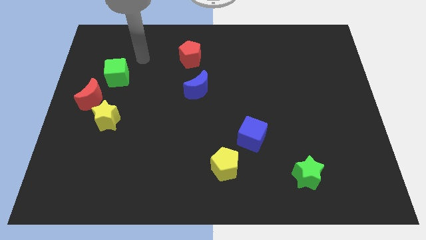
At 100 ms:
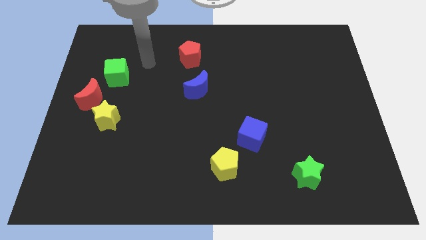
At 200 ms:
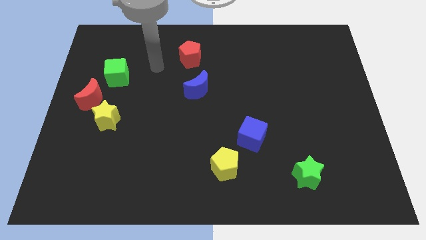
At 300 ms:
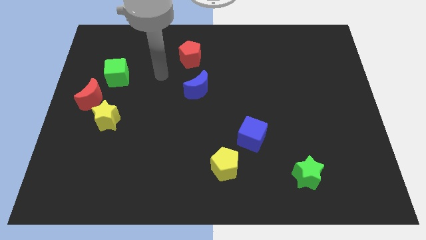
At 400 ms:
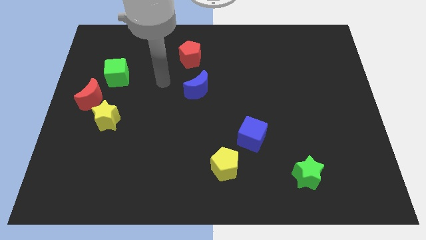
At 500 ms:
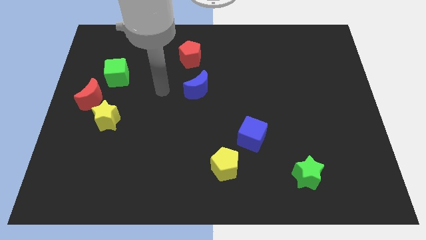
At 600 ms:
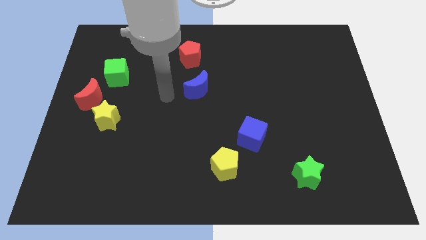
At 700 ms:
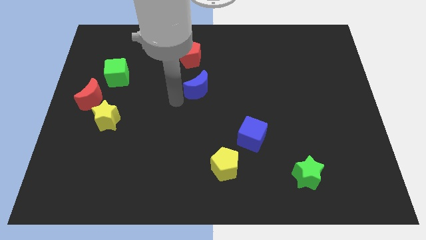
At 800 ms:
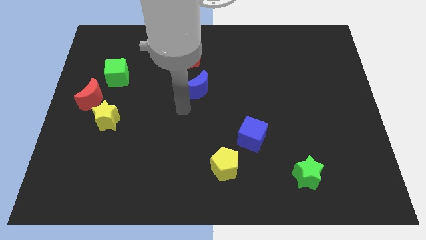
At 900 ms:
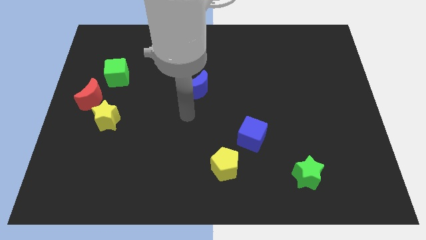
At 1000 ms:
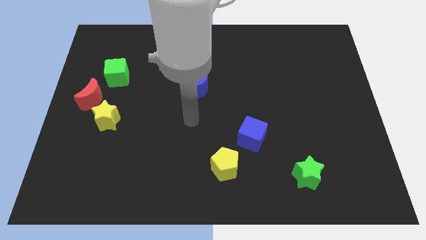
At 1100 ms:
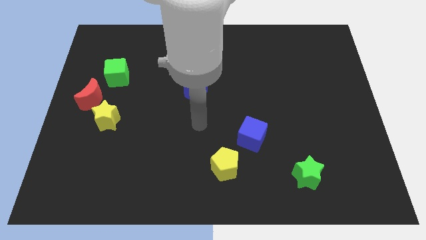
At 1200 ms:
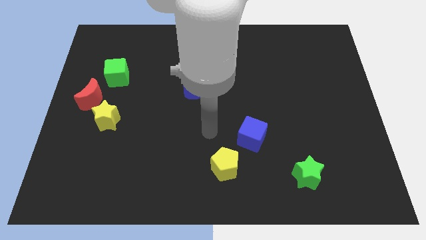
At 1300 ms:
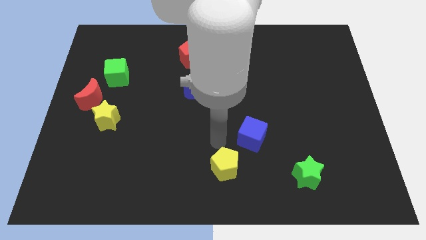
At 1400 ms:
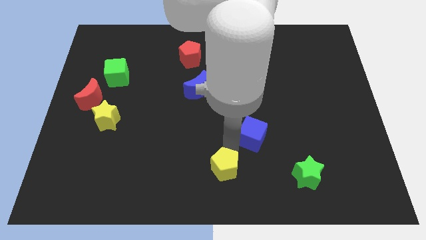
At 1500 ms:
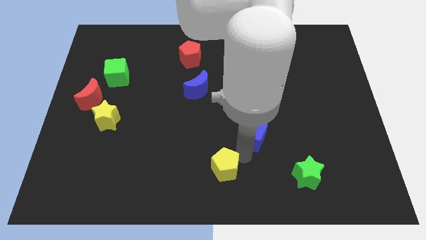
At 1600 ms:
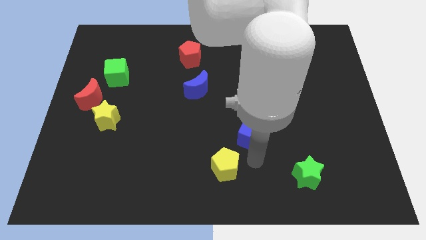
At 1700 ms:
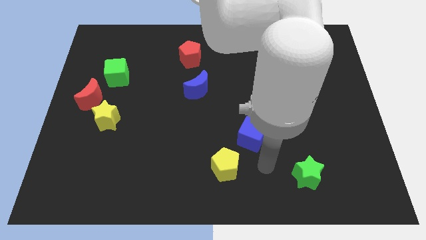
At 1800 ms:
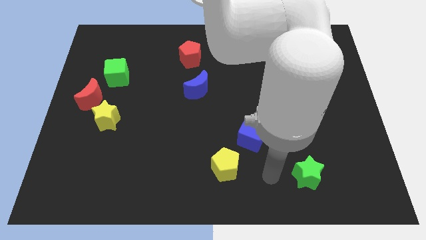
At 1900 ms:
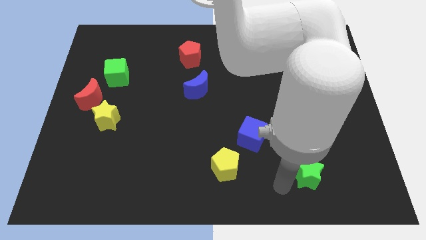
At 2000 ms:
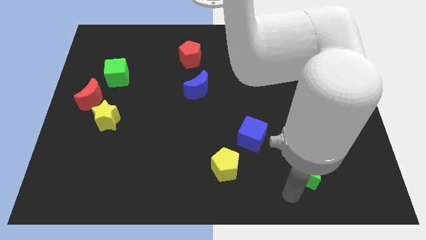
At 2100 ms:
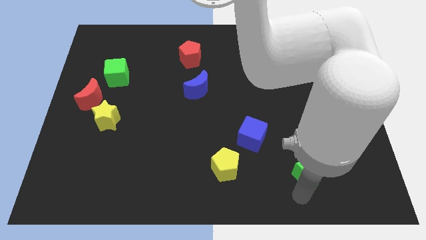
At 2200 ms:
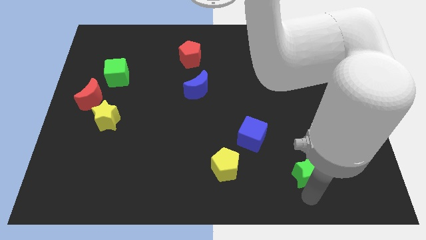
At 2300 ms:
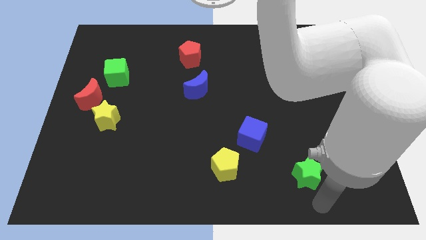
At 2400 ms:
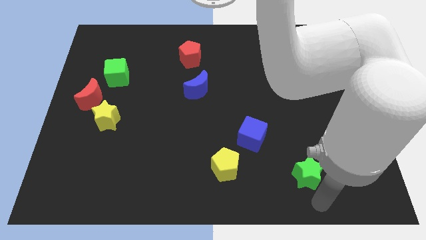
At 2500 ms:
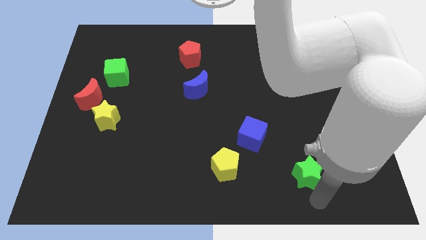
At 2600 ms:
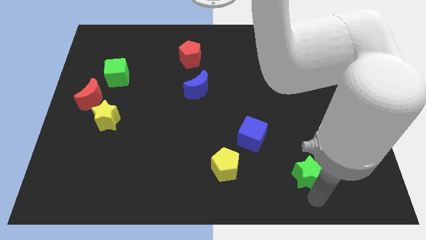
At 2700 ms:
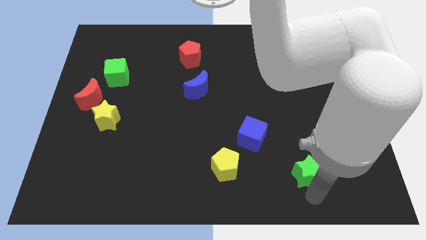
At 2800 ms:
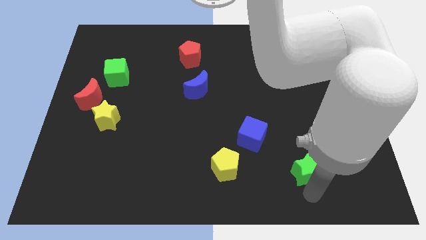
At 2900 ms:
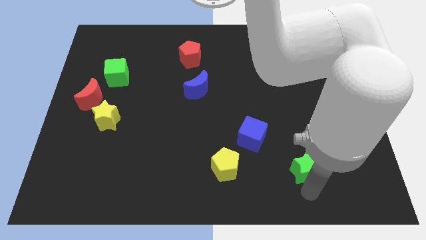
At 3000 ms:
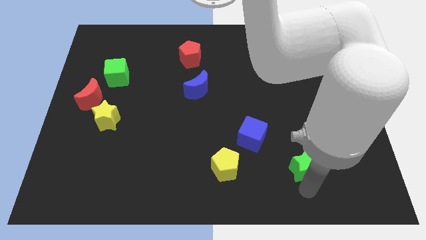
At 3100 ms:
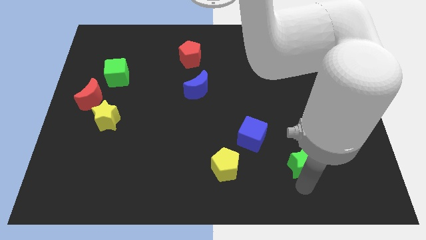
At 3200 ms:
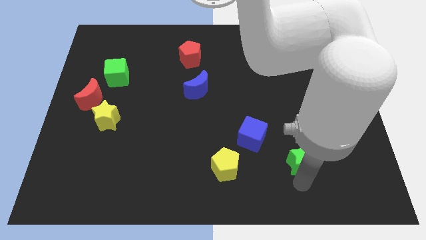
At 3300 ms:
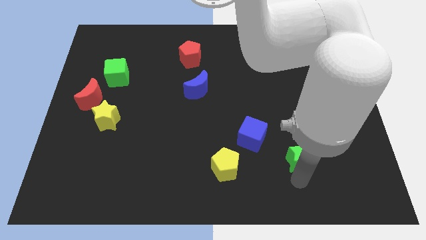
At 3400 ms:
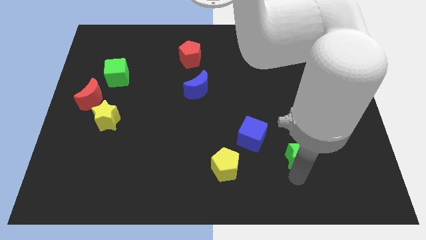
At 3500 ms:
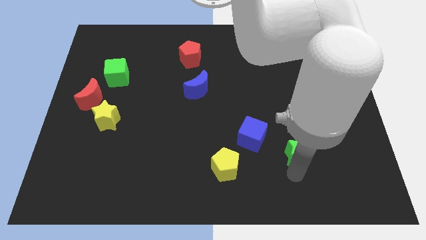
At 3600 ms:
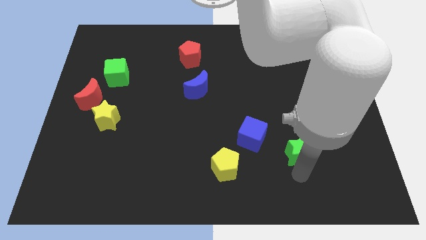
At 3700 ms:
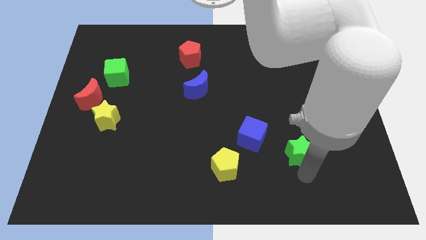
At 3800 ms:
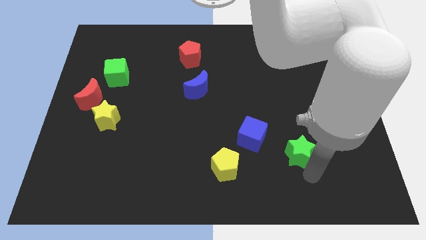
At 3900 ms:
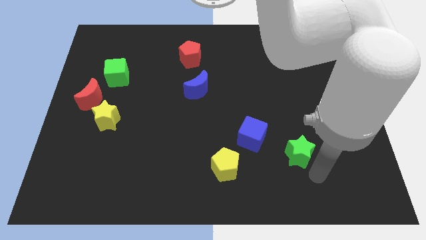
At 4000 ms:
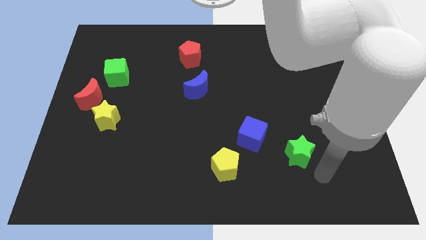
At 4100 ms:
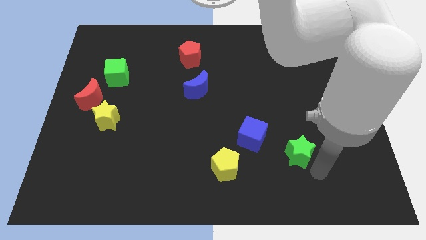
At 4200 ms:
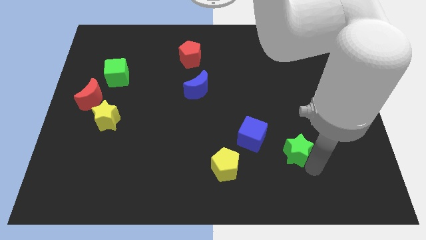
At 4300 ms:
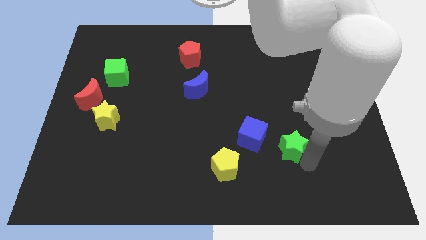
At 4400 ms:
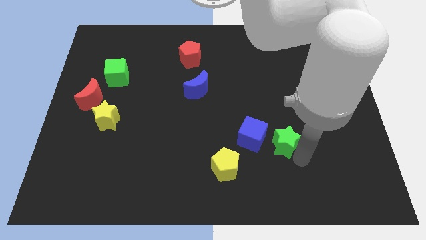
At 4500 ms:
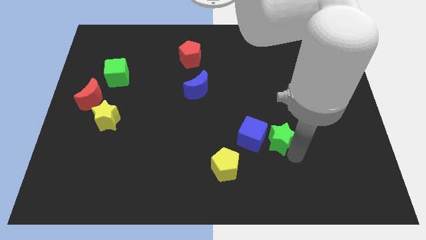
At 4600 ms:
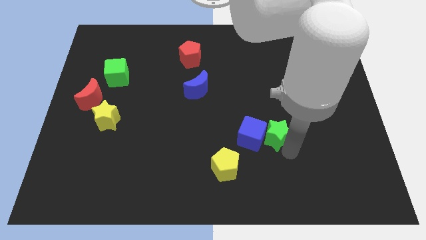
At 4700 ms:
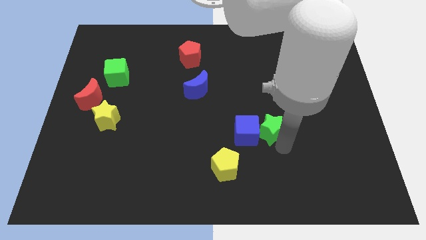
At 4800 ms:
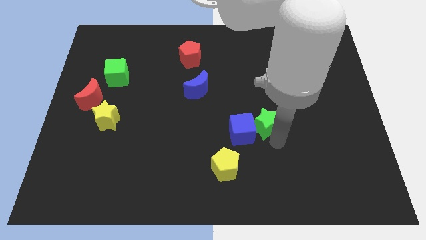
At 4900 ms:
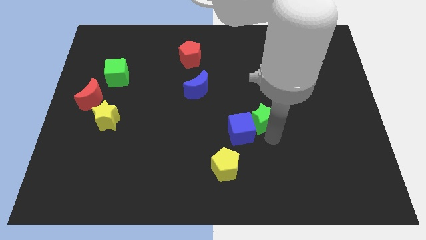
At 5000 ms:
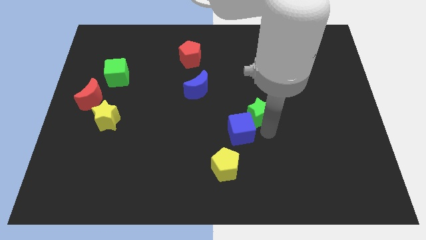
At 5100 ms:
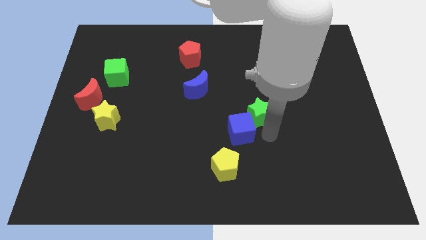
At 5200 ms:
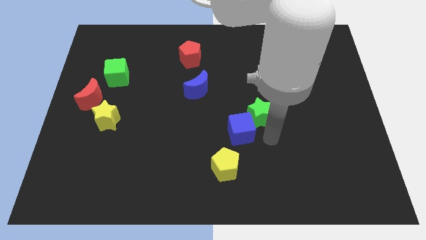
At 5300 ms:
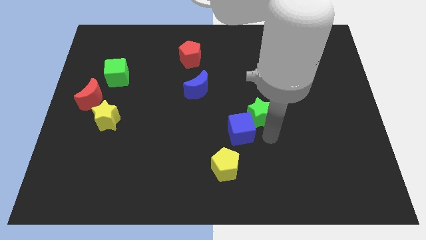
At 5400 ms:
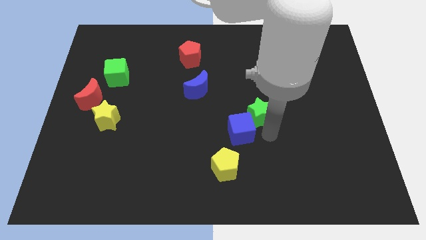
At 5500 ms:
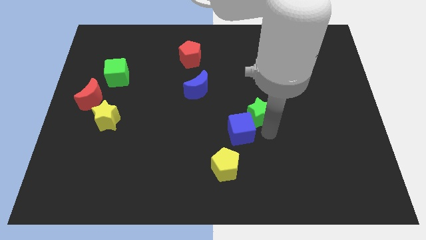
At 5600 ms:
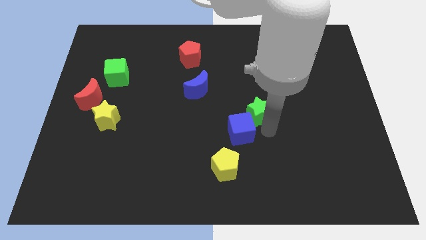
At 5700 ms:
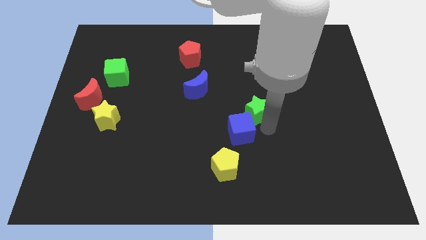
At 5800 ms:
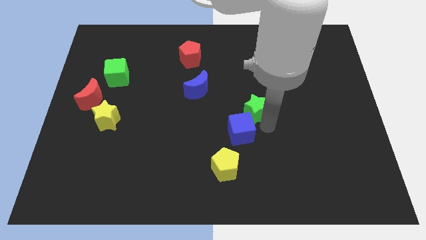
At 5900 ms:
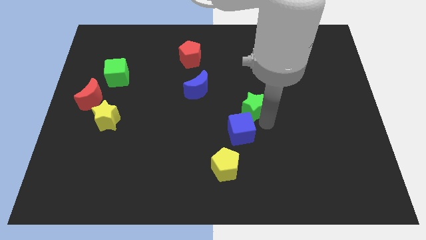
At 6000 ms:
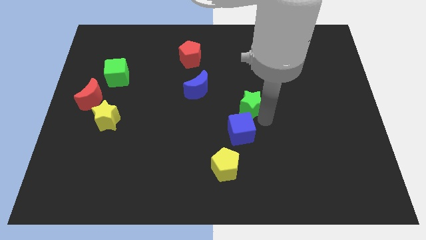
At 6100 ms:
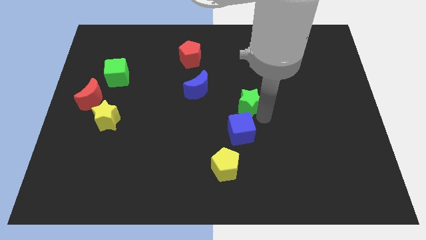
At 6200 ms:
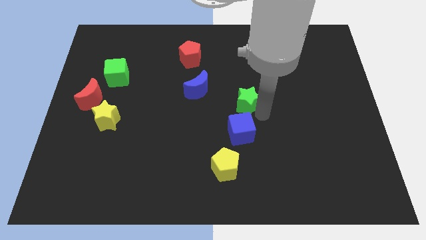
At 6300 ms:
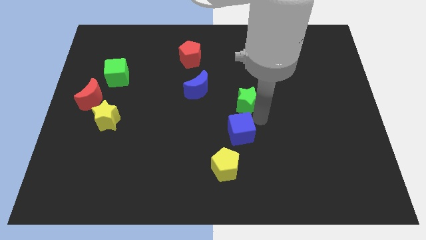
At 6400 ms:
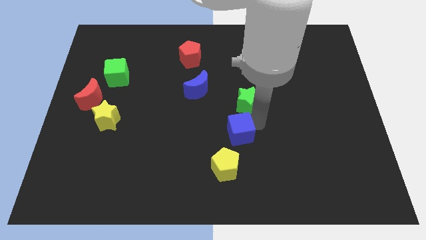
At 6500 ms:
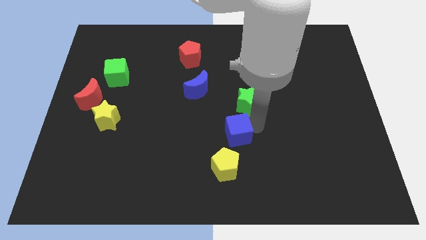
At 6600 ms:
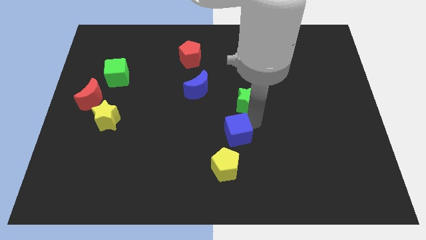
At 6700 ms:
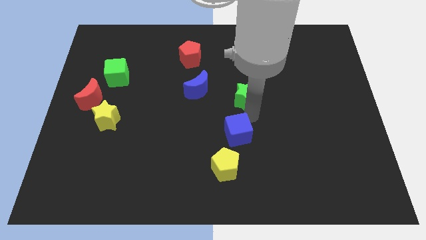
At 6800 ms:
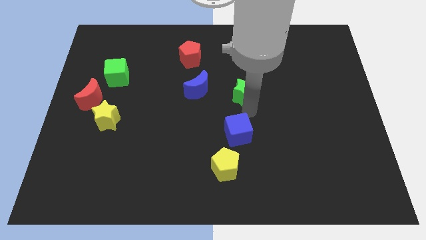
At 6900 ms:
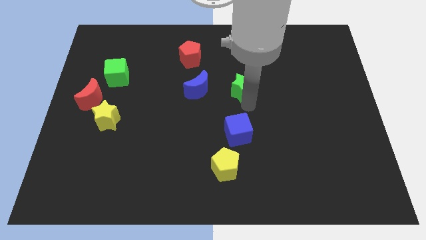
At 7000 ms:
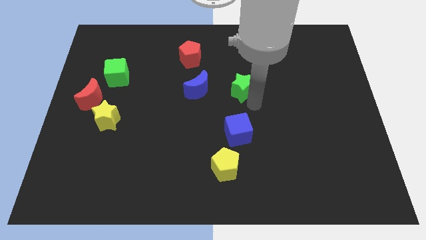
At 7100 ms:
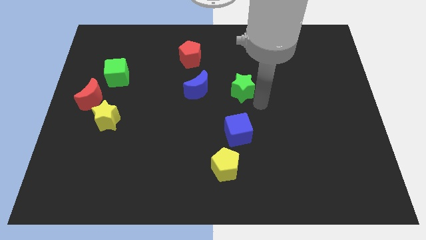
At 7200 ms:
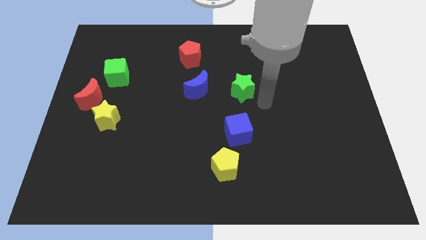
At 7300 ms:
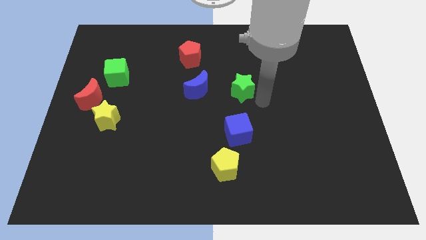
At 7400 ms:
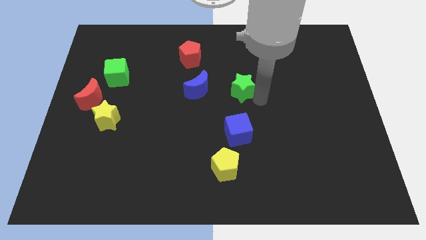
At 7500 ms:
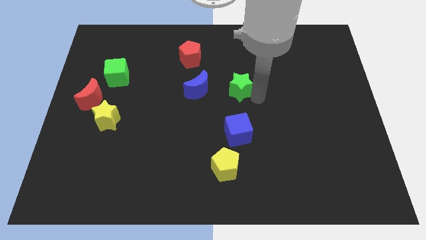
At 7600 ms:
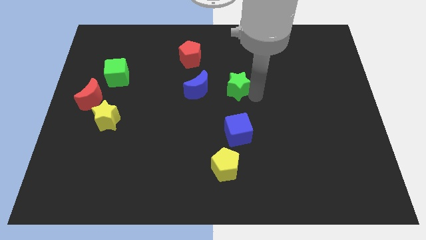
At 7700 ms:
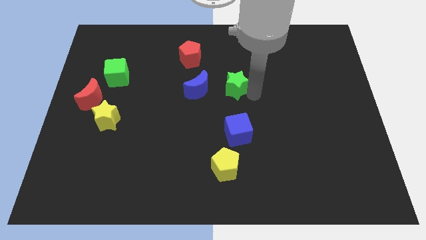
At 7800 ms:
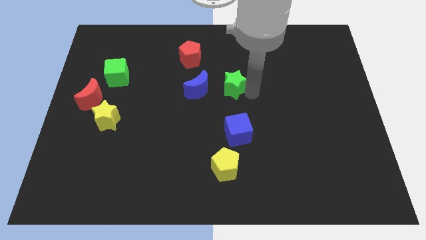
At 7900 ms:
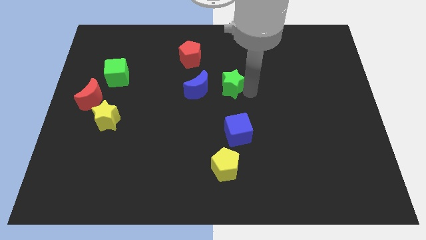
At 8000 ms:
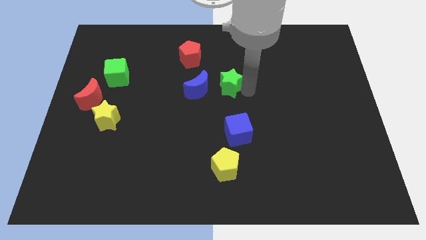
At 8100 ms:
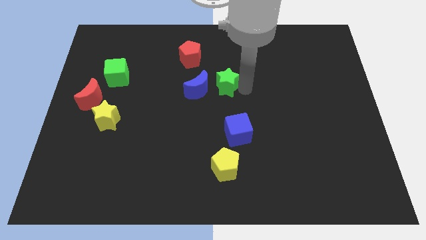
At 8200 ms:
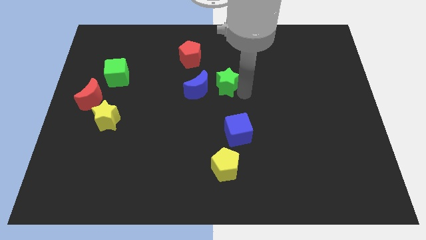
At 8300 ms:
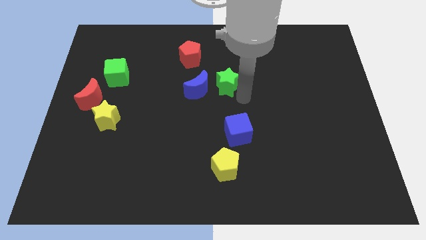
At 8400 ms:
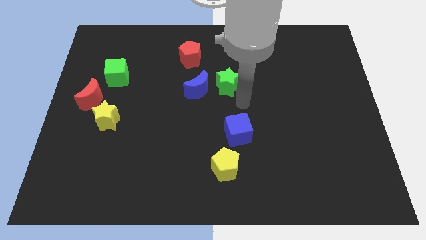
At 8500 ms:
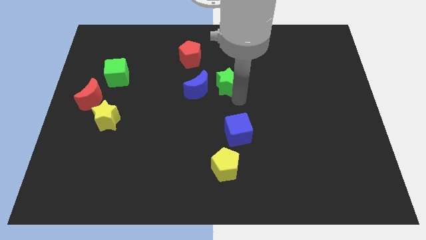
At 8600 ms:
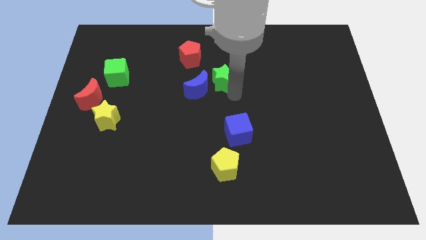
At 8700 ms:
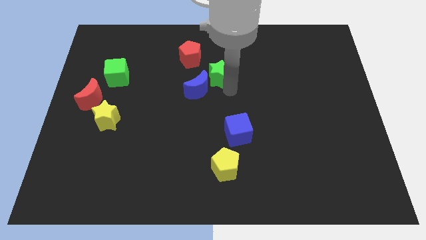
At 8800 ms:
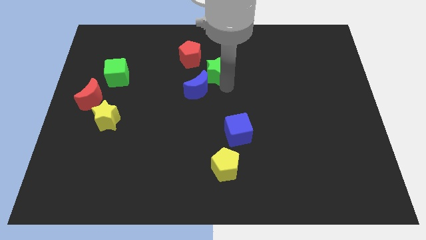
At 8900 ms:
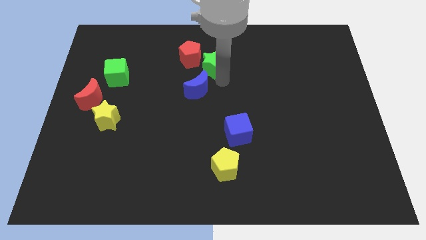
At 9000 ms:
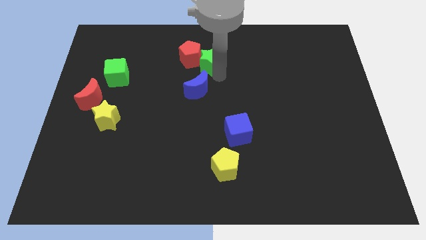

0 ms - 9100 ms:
push the green star close to the red pentagon
